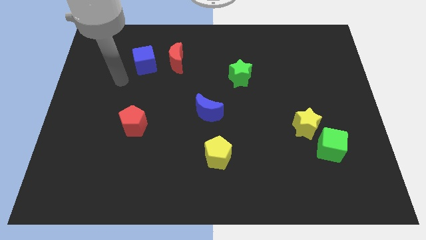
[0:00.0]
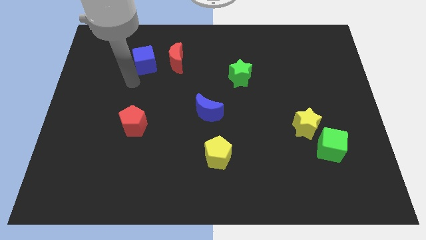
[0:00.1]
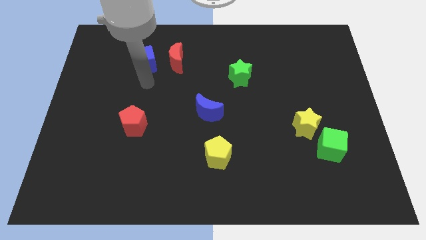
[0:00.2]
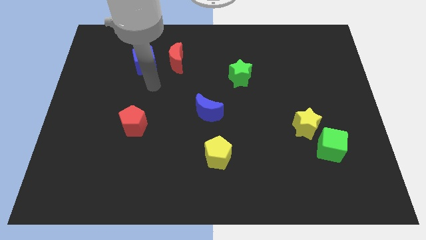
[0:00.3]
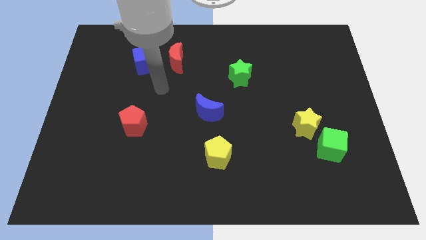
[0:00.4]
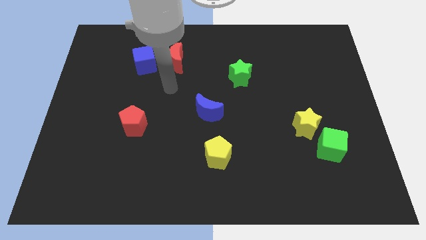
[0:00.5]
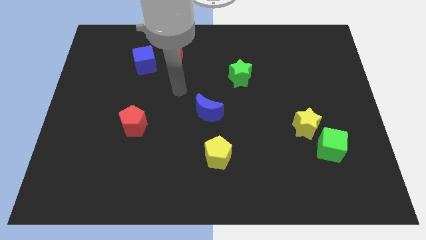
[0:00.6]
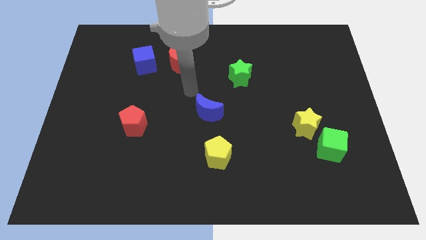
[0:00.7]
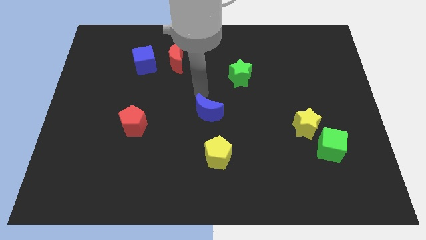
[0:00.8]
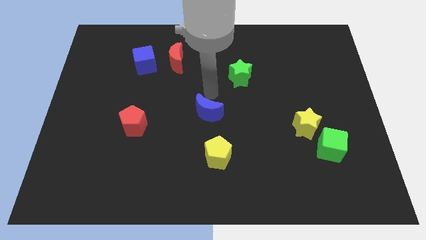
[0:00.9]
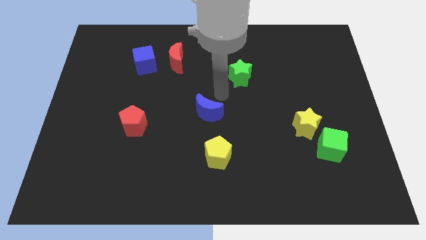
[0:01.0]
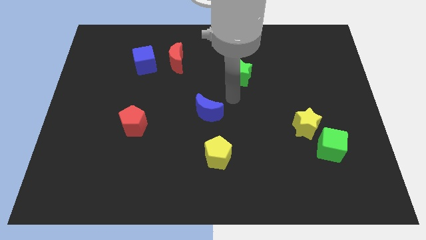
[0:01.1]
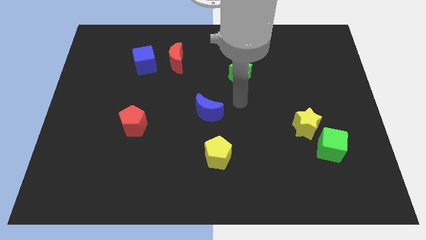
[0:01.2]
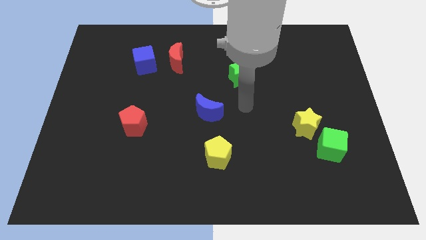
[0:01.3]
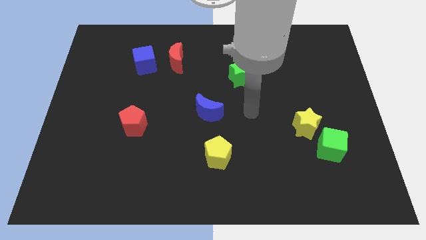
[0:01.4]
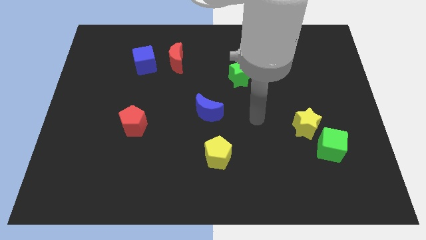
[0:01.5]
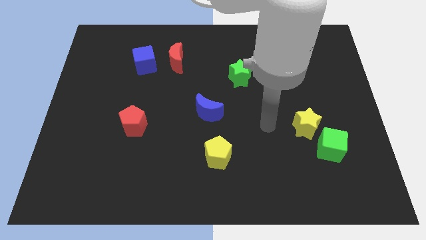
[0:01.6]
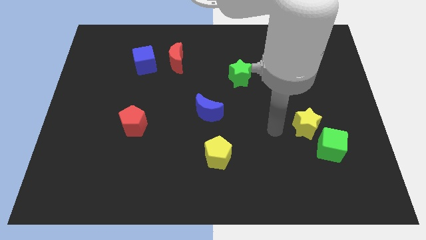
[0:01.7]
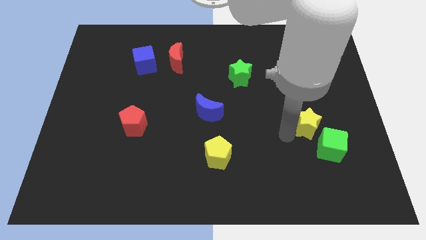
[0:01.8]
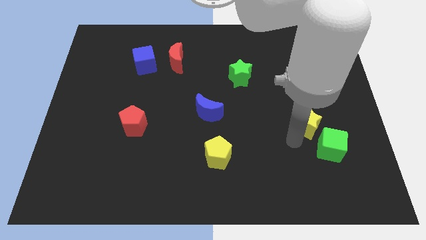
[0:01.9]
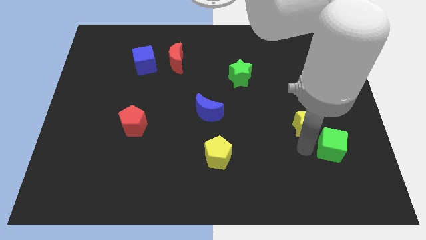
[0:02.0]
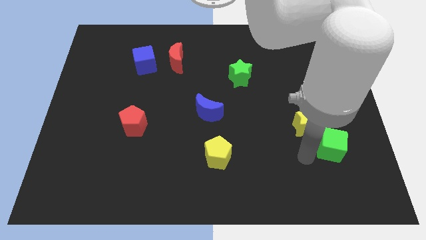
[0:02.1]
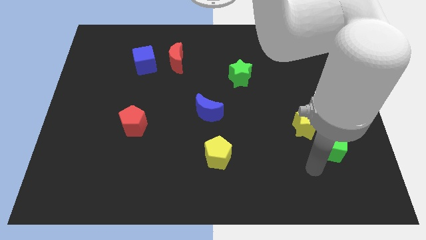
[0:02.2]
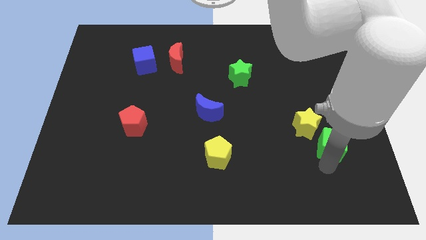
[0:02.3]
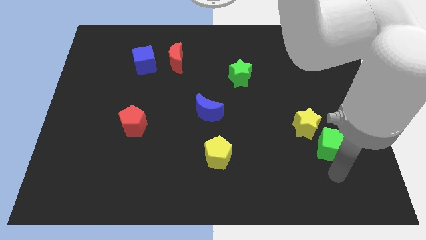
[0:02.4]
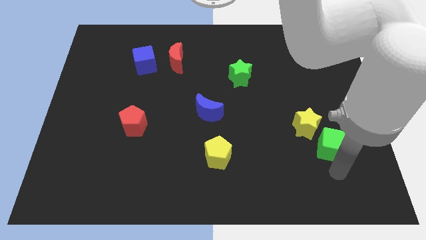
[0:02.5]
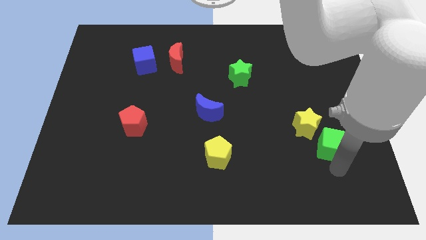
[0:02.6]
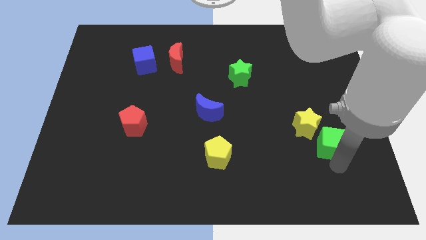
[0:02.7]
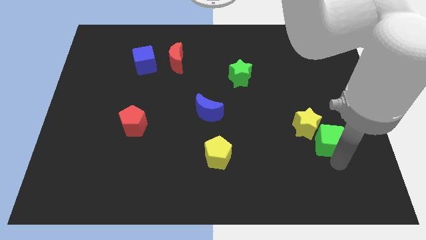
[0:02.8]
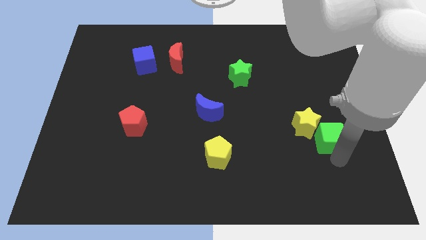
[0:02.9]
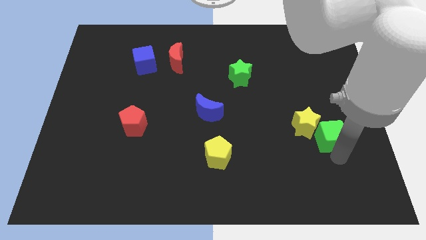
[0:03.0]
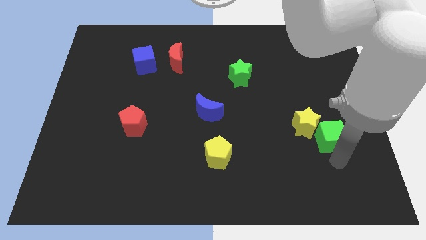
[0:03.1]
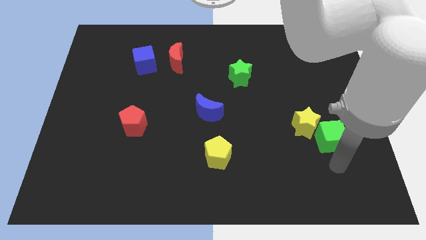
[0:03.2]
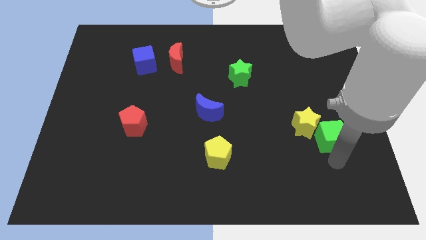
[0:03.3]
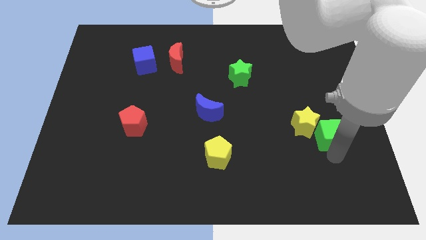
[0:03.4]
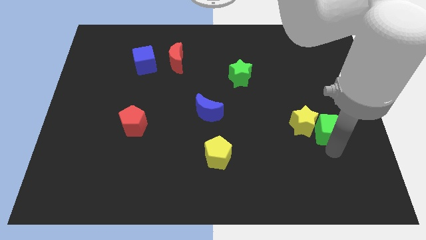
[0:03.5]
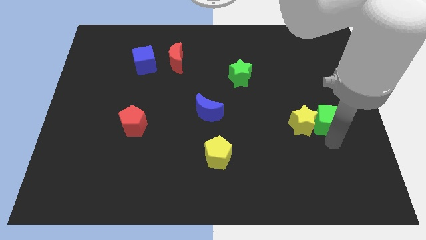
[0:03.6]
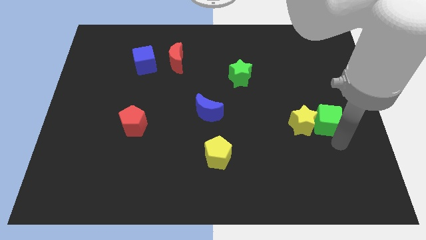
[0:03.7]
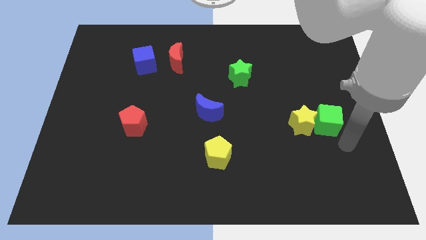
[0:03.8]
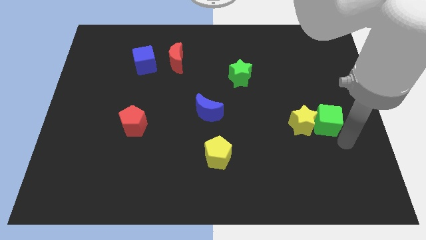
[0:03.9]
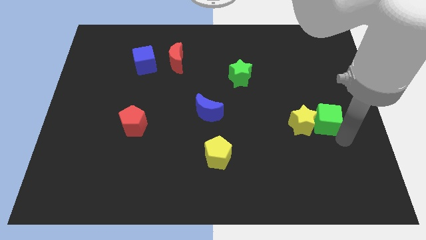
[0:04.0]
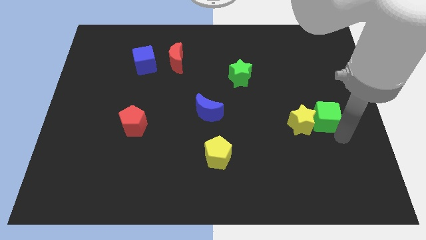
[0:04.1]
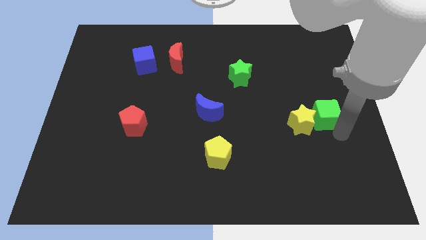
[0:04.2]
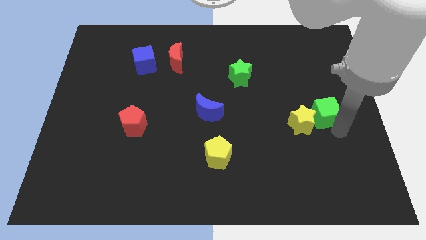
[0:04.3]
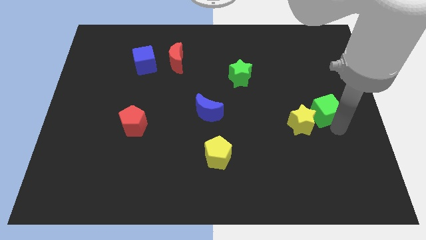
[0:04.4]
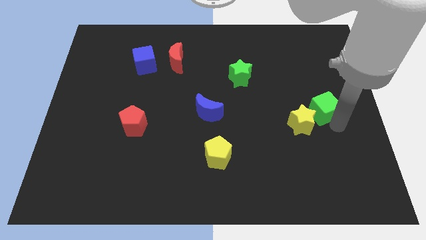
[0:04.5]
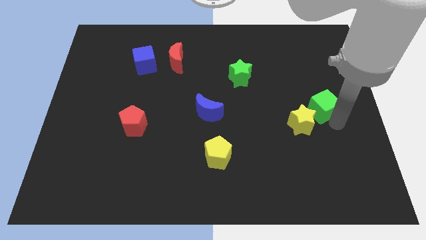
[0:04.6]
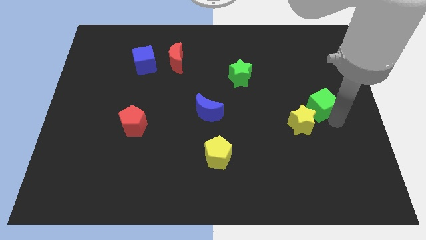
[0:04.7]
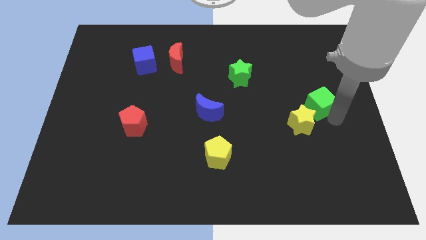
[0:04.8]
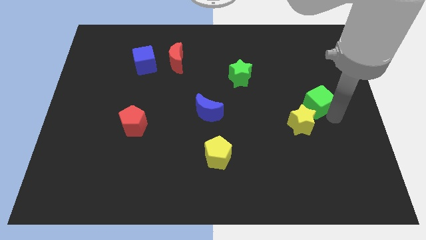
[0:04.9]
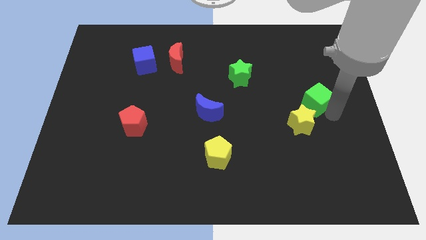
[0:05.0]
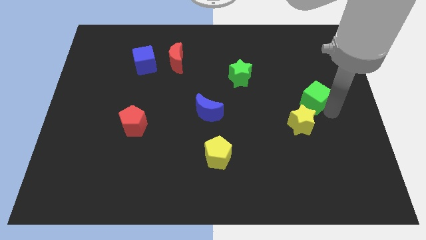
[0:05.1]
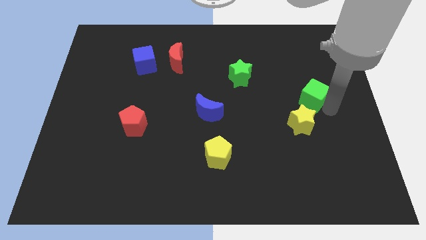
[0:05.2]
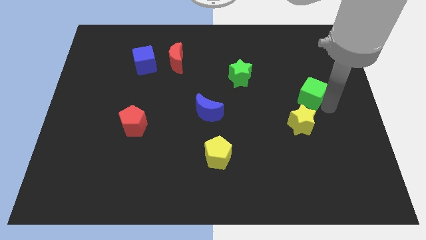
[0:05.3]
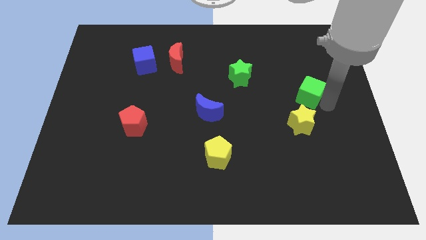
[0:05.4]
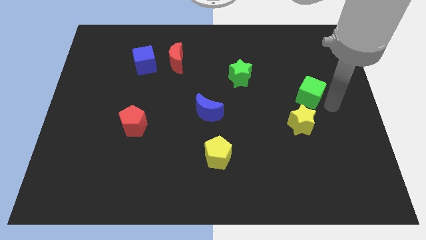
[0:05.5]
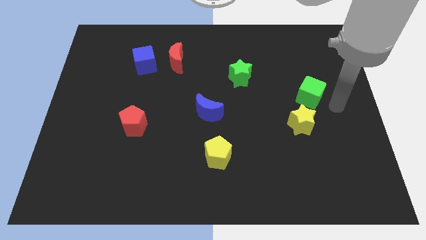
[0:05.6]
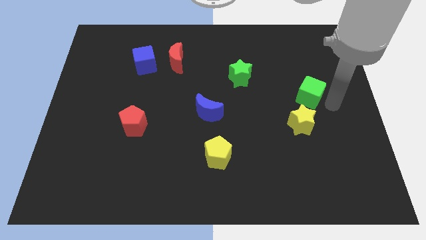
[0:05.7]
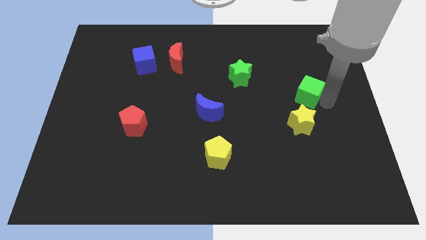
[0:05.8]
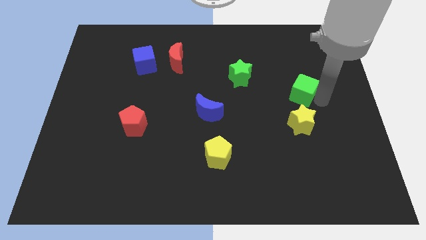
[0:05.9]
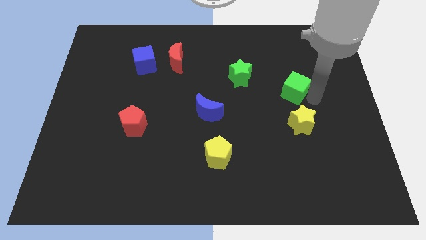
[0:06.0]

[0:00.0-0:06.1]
push the green cube just right of the green star
